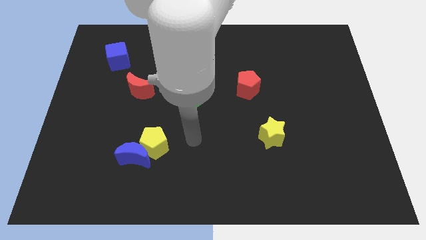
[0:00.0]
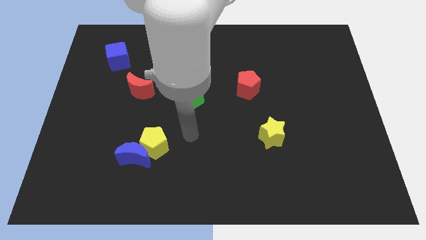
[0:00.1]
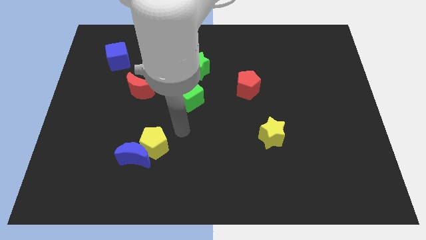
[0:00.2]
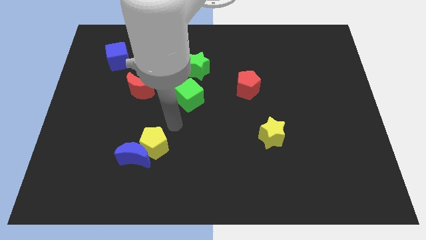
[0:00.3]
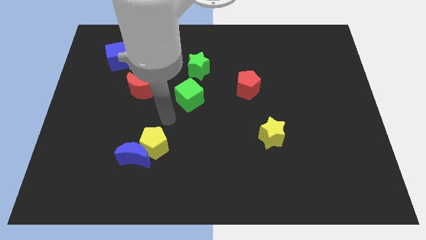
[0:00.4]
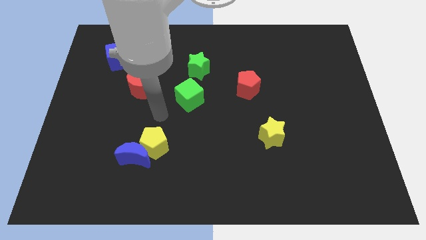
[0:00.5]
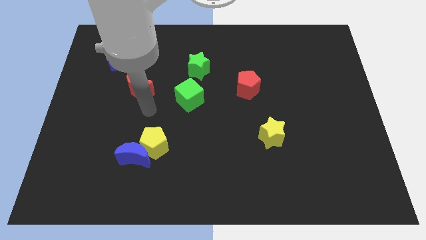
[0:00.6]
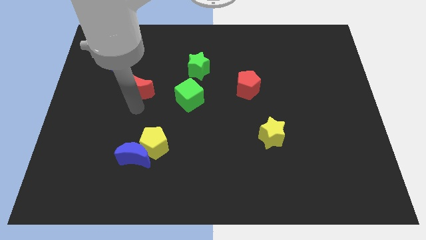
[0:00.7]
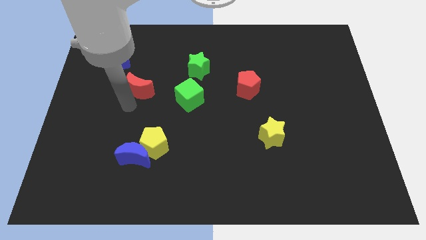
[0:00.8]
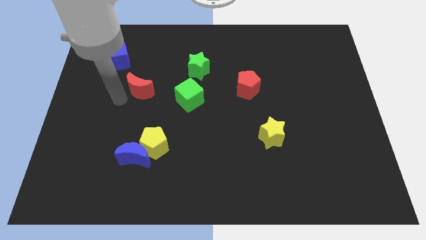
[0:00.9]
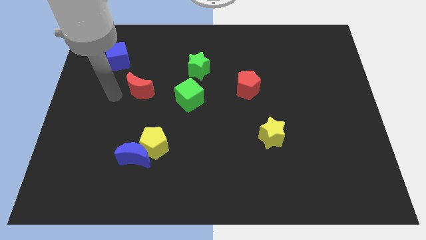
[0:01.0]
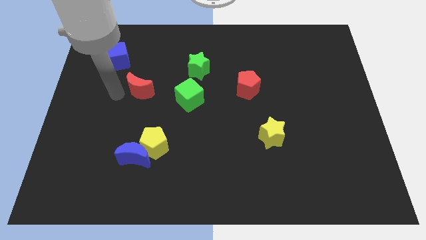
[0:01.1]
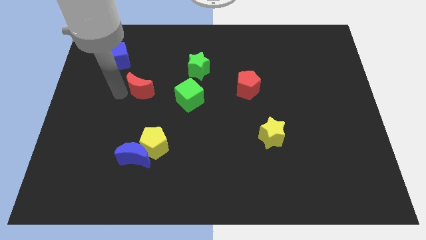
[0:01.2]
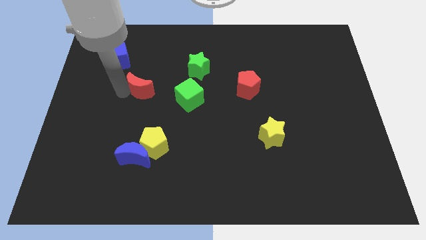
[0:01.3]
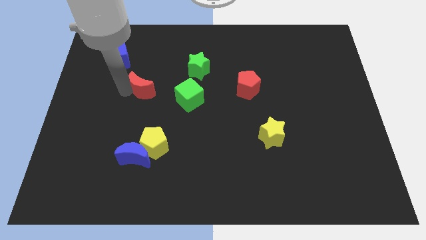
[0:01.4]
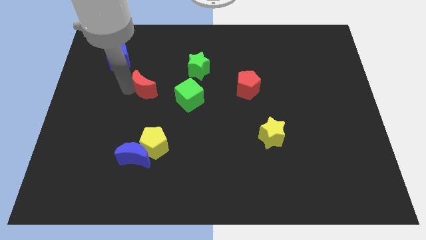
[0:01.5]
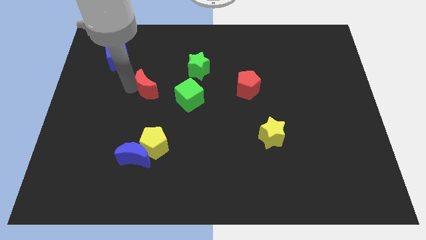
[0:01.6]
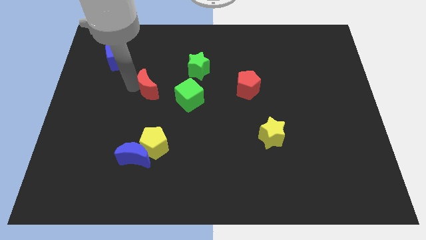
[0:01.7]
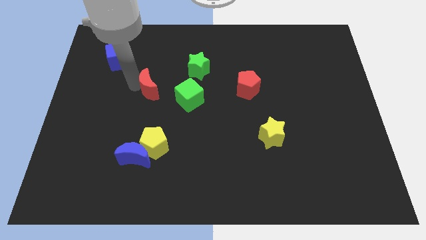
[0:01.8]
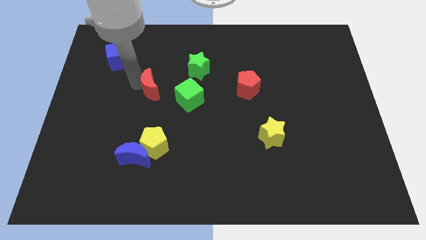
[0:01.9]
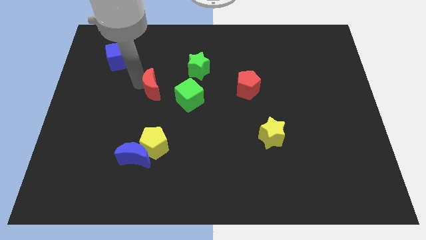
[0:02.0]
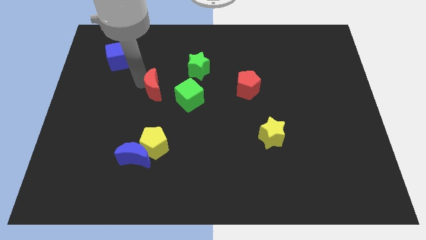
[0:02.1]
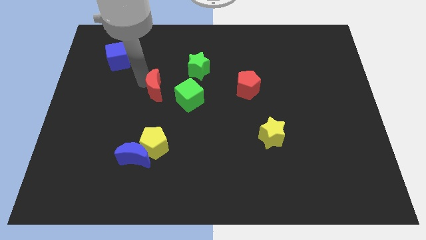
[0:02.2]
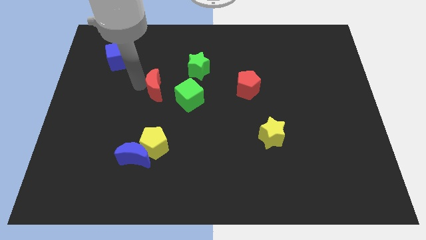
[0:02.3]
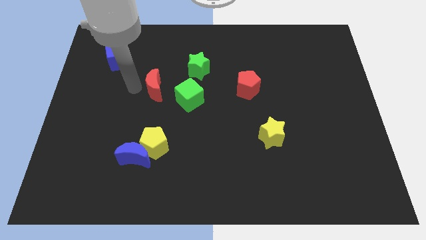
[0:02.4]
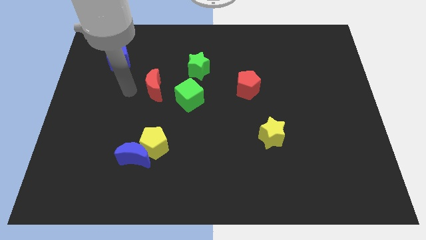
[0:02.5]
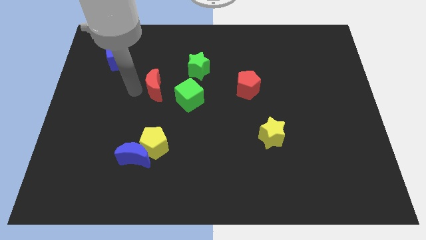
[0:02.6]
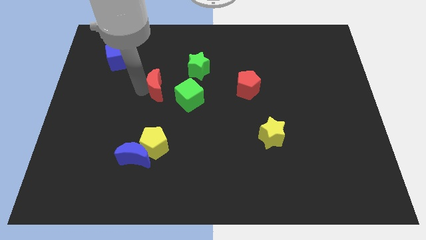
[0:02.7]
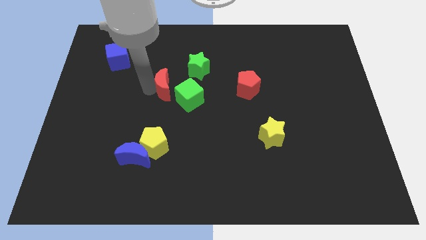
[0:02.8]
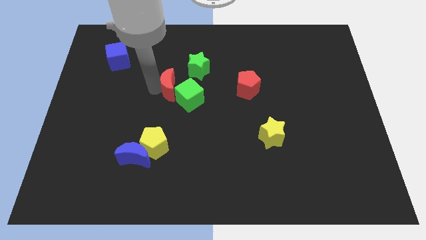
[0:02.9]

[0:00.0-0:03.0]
slightly slide the red moon right

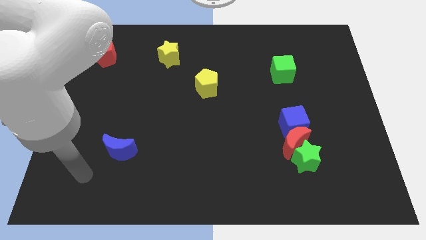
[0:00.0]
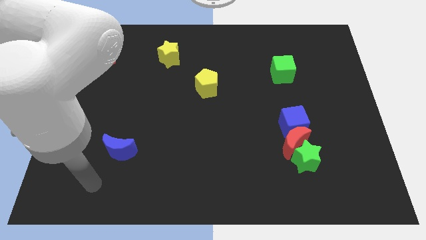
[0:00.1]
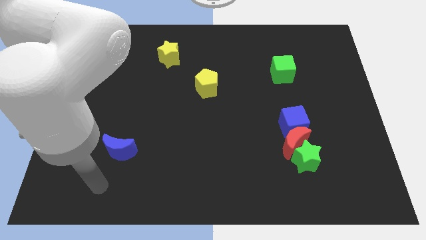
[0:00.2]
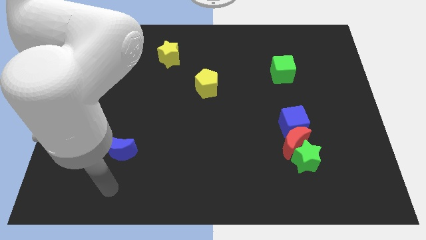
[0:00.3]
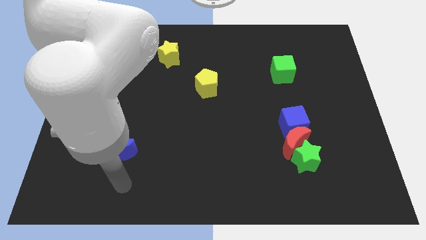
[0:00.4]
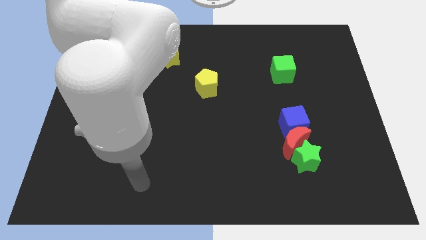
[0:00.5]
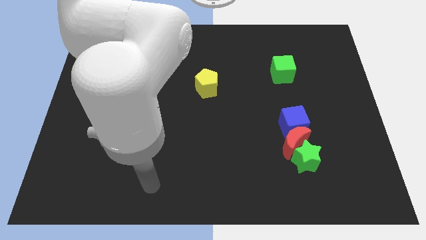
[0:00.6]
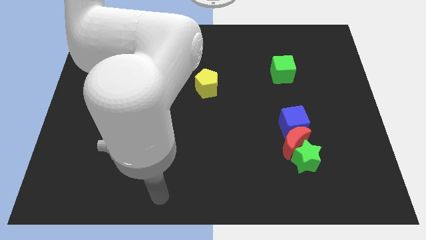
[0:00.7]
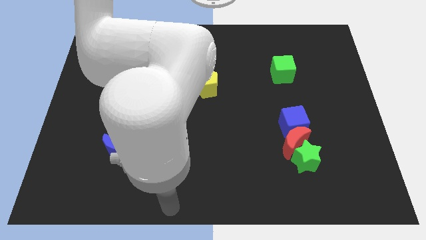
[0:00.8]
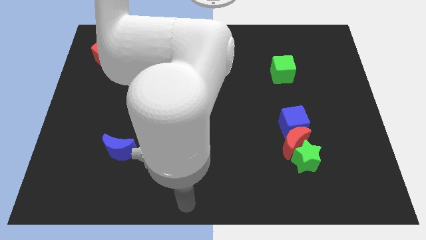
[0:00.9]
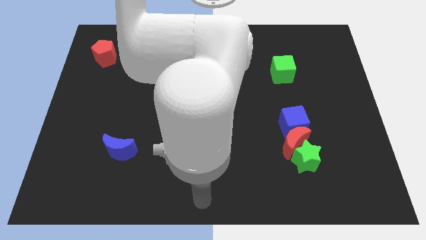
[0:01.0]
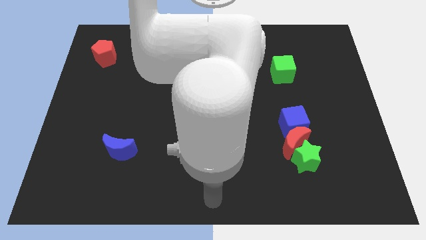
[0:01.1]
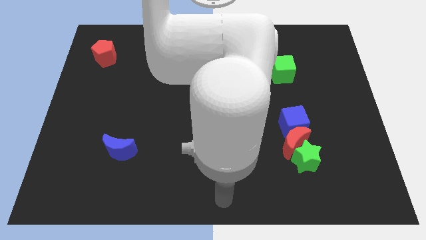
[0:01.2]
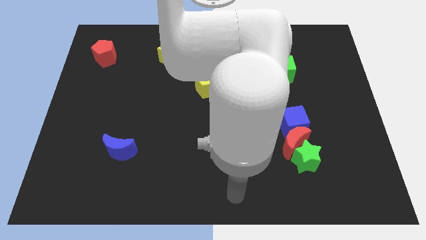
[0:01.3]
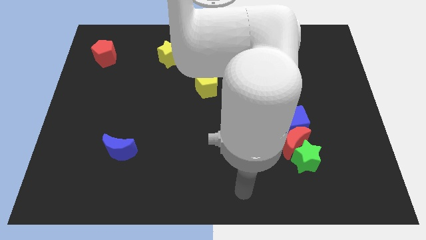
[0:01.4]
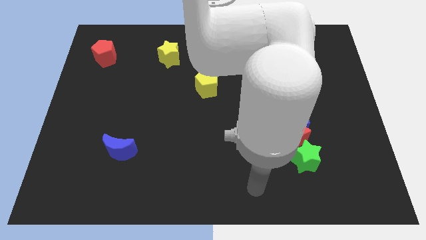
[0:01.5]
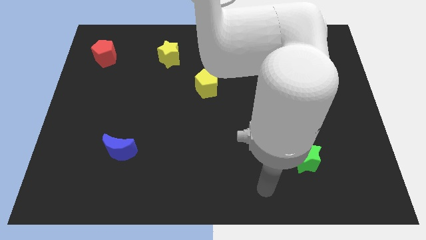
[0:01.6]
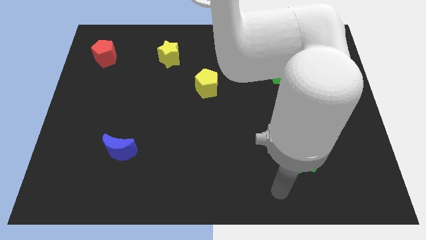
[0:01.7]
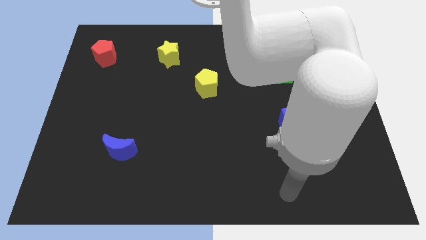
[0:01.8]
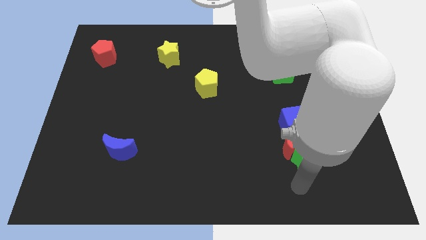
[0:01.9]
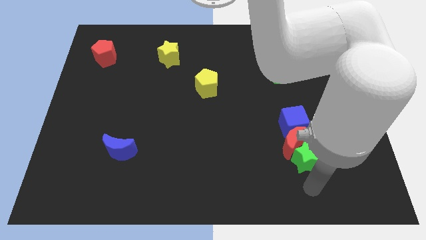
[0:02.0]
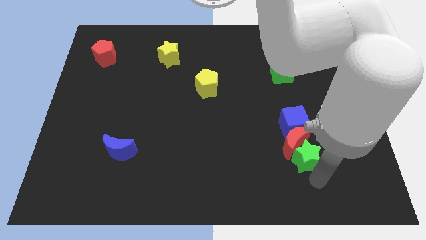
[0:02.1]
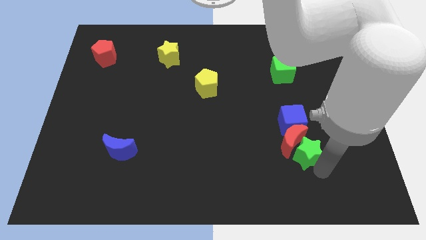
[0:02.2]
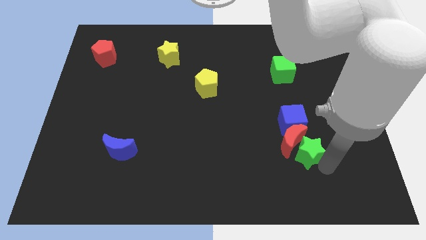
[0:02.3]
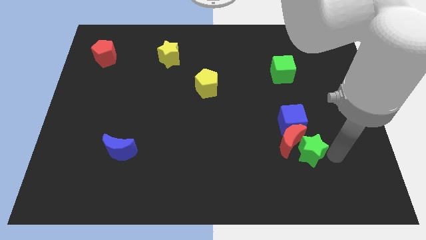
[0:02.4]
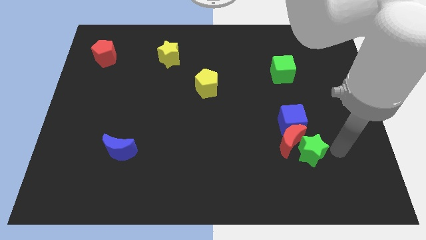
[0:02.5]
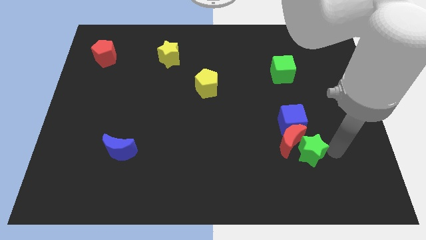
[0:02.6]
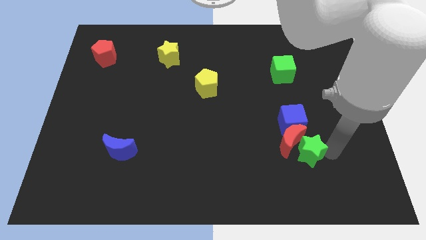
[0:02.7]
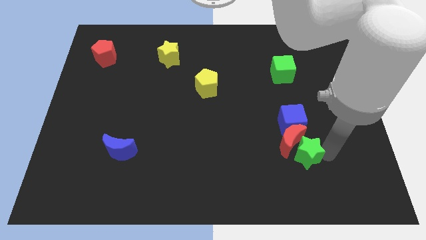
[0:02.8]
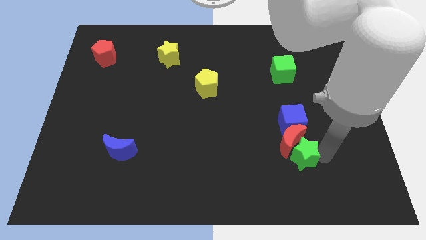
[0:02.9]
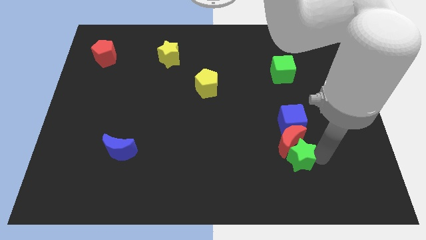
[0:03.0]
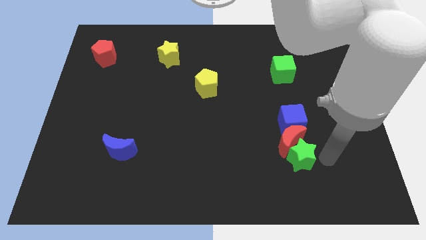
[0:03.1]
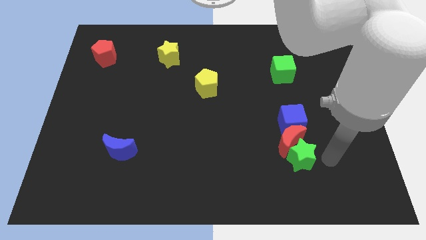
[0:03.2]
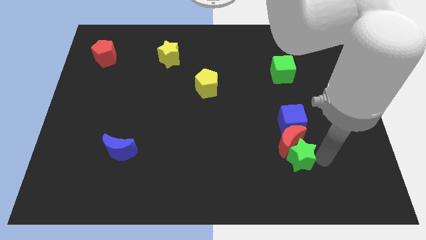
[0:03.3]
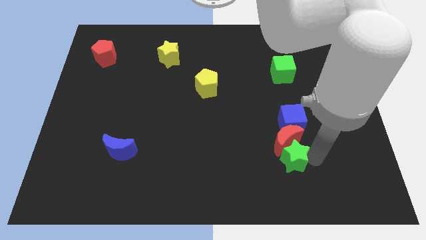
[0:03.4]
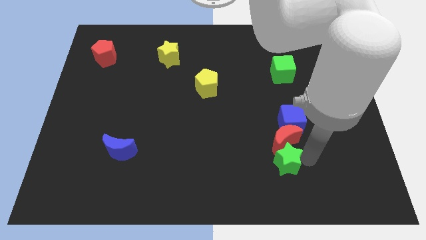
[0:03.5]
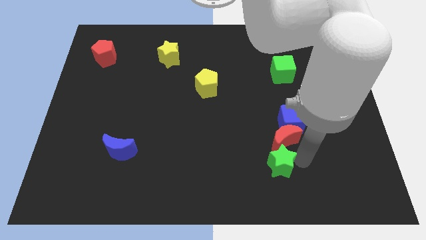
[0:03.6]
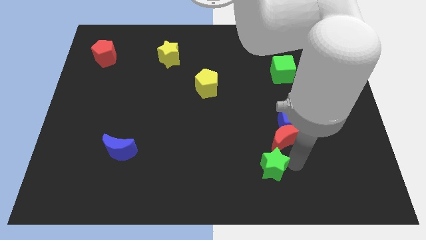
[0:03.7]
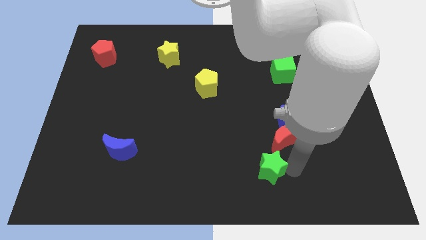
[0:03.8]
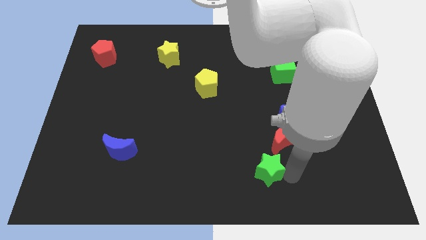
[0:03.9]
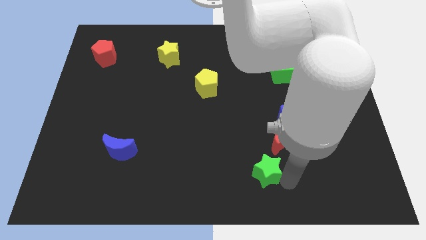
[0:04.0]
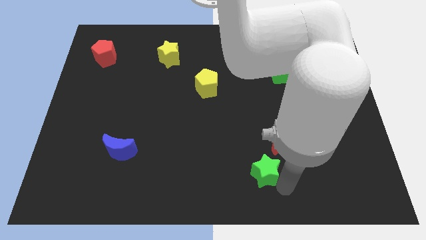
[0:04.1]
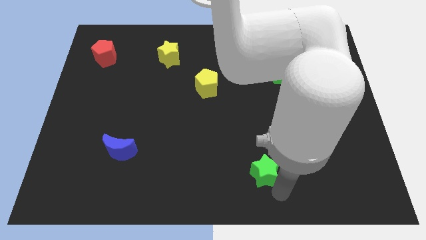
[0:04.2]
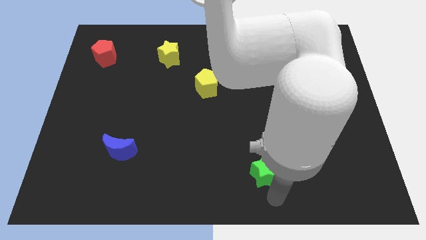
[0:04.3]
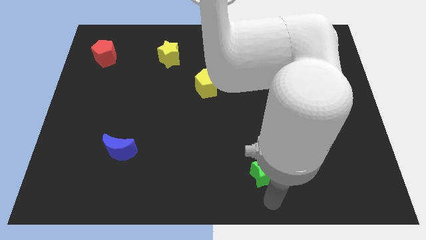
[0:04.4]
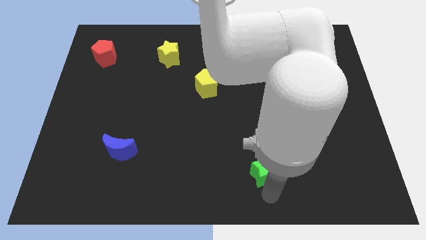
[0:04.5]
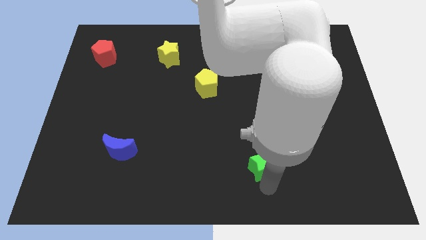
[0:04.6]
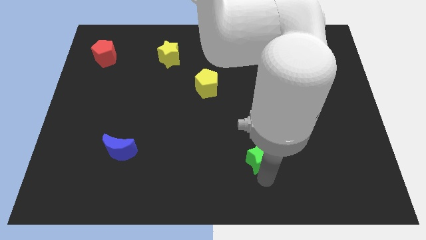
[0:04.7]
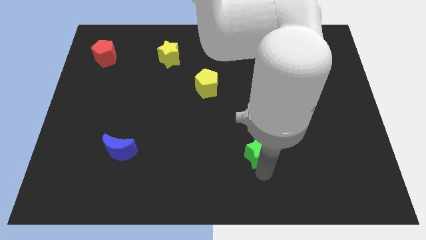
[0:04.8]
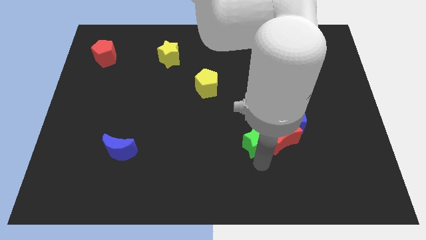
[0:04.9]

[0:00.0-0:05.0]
push the green star slightly up and then left
